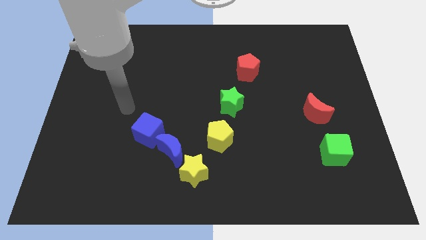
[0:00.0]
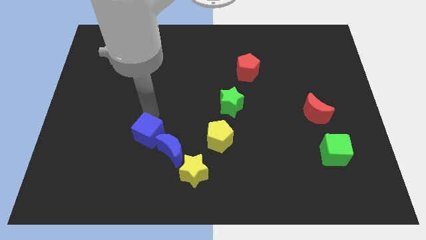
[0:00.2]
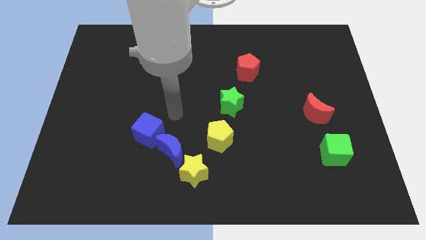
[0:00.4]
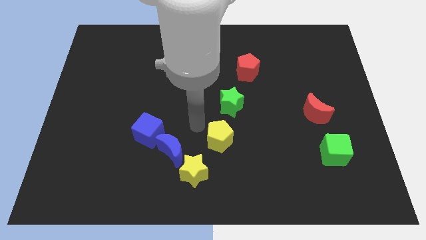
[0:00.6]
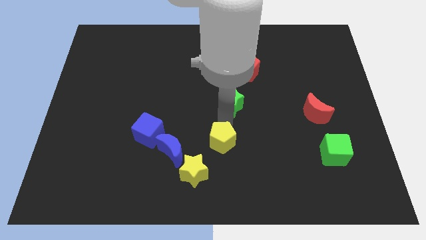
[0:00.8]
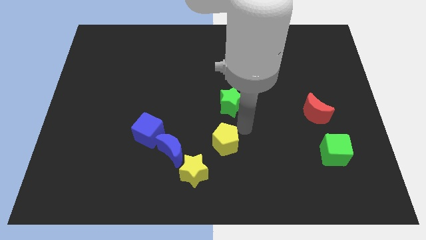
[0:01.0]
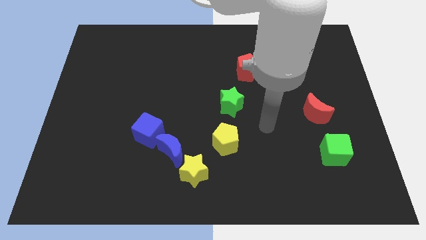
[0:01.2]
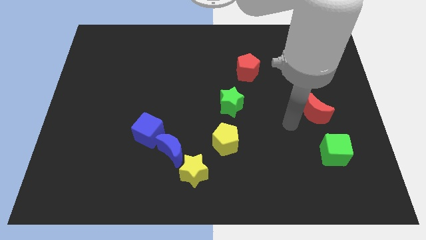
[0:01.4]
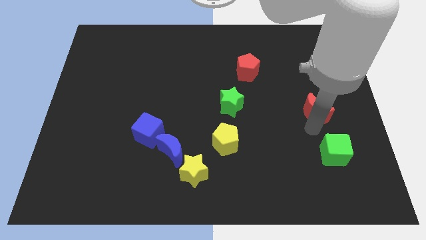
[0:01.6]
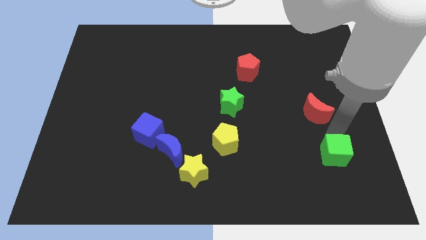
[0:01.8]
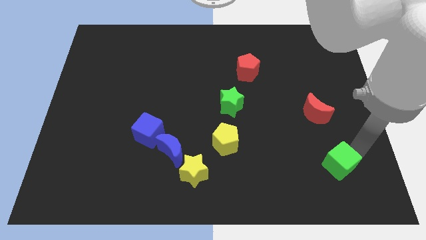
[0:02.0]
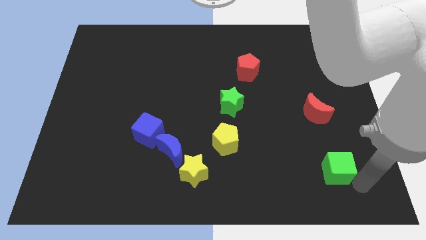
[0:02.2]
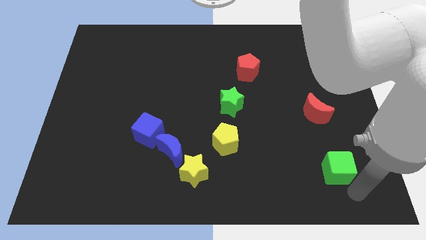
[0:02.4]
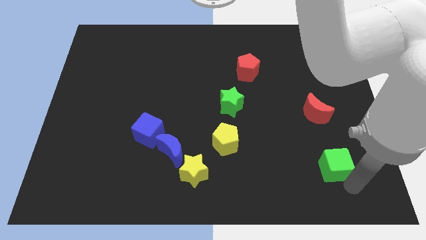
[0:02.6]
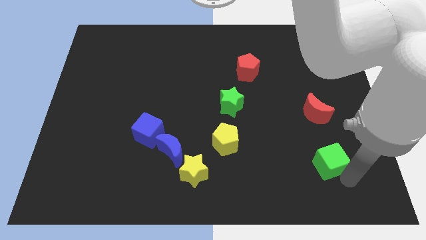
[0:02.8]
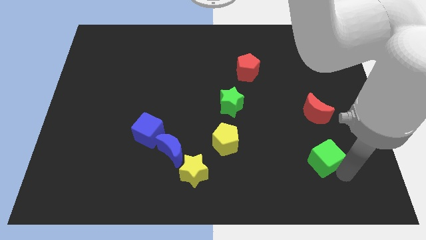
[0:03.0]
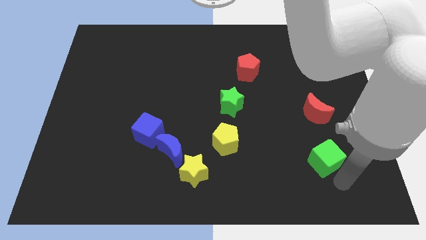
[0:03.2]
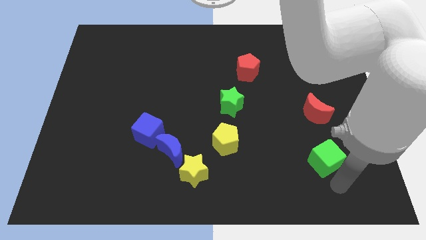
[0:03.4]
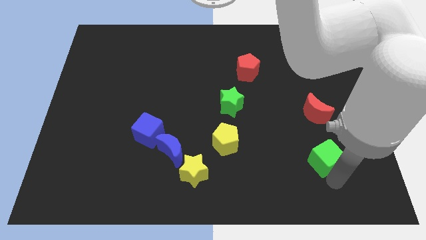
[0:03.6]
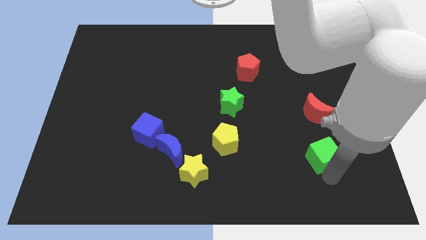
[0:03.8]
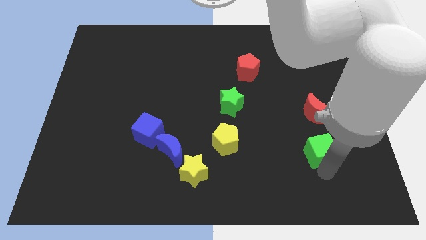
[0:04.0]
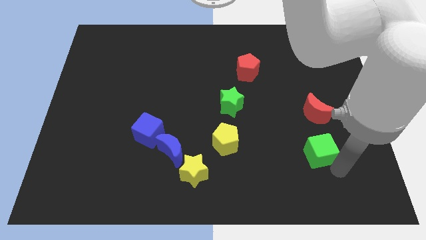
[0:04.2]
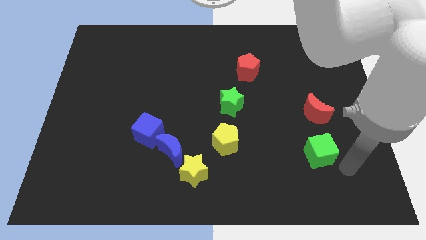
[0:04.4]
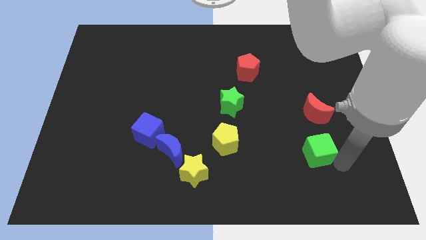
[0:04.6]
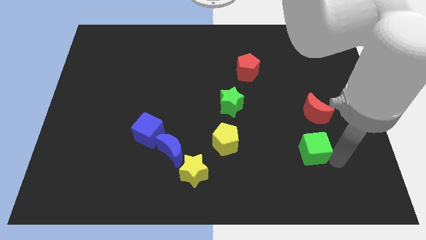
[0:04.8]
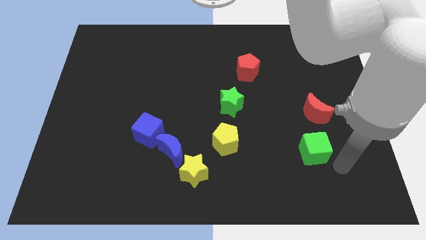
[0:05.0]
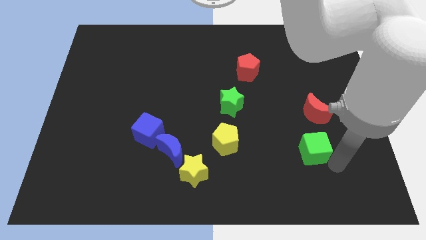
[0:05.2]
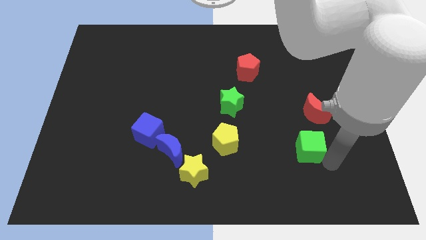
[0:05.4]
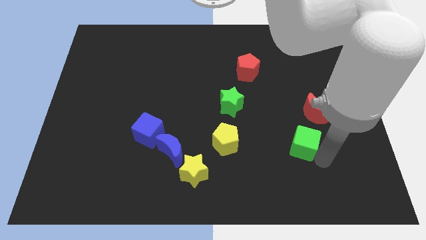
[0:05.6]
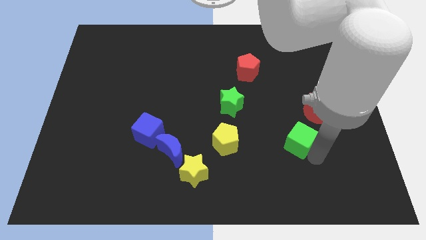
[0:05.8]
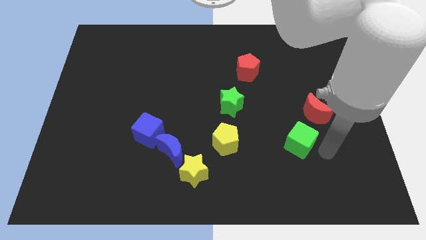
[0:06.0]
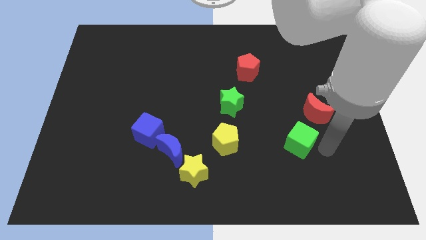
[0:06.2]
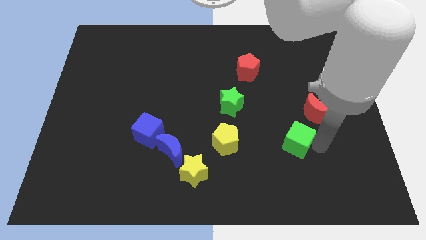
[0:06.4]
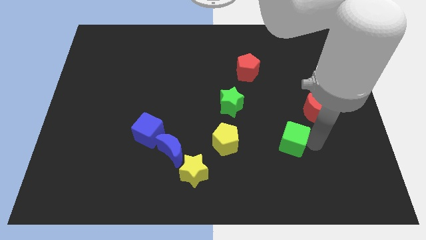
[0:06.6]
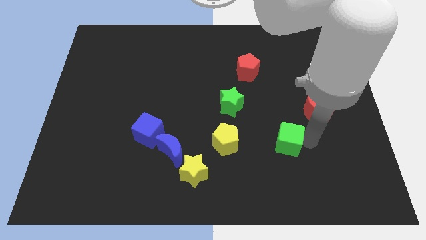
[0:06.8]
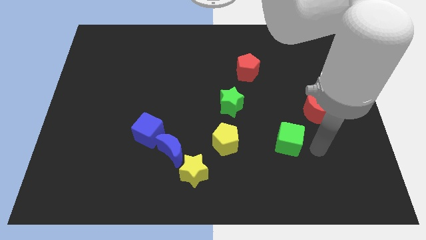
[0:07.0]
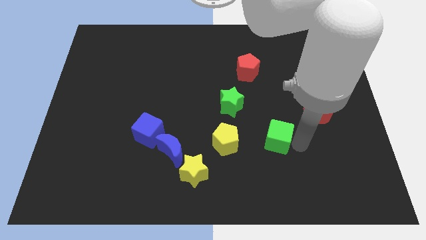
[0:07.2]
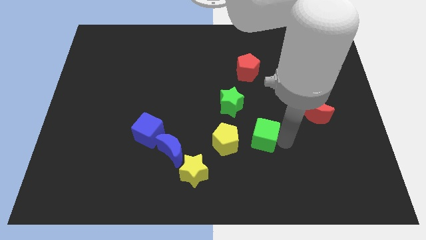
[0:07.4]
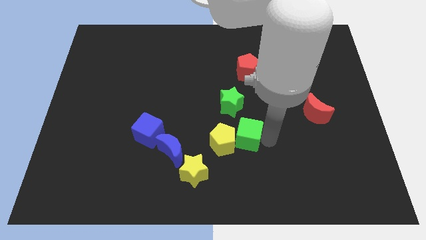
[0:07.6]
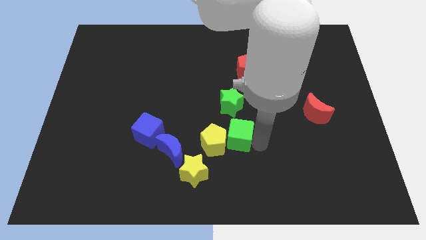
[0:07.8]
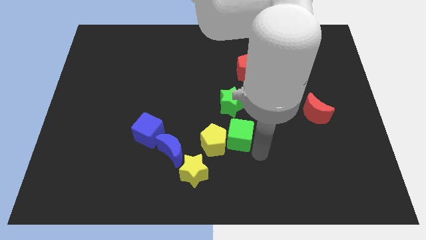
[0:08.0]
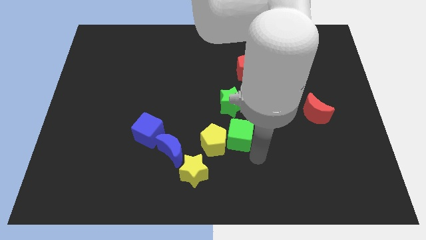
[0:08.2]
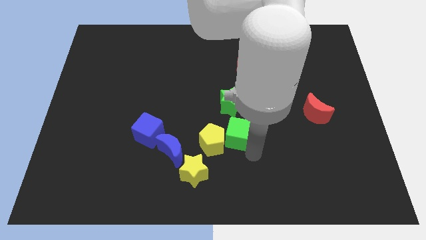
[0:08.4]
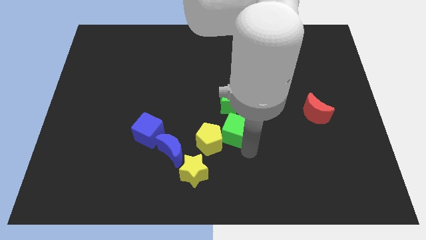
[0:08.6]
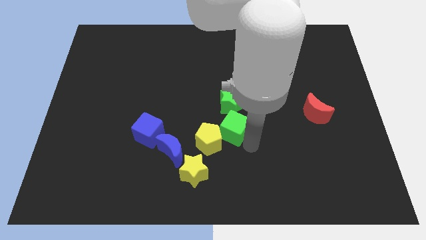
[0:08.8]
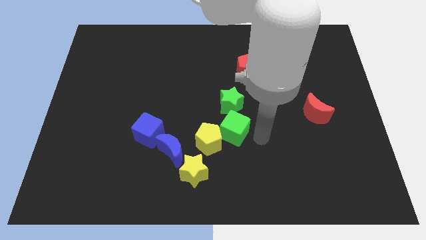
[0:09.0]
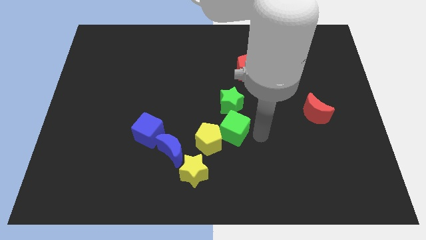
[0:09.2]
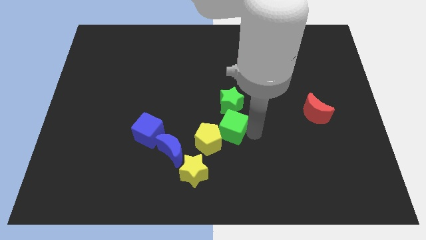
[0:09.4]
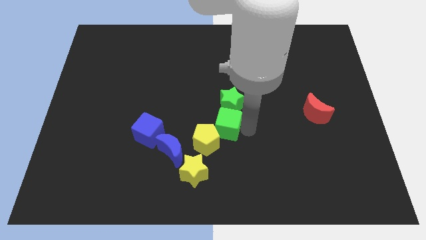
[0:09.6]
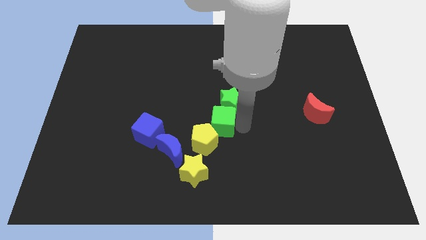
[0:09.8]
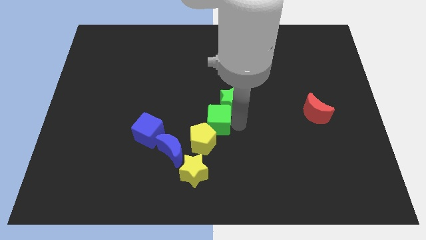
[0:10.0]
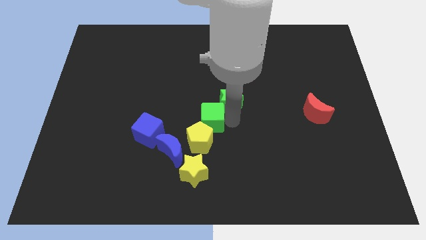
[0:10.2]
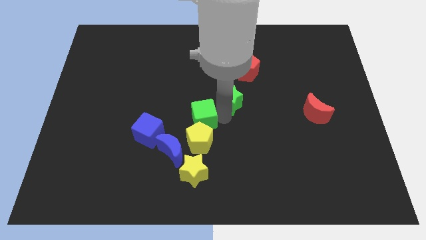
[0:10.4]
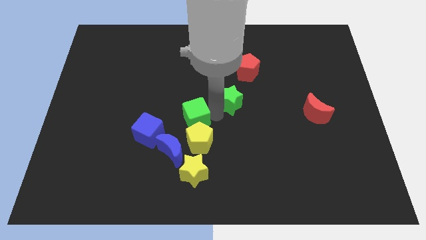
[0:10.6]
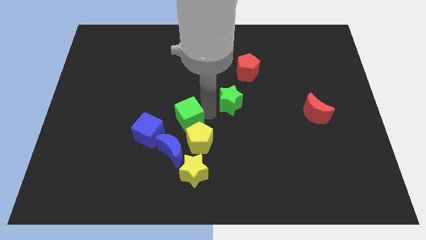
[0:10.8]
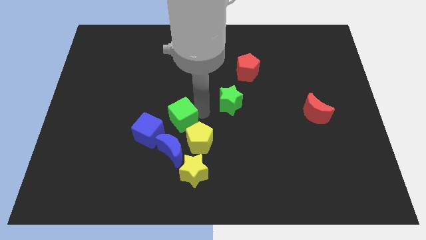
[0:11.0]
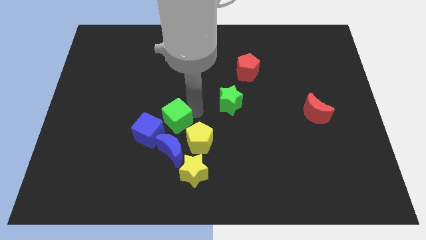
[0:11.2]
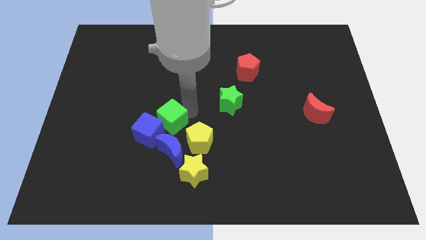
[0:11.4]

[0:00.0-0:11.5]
slide the green cube close to the blue cube

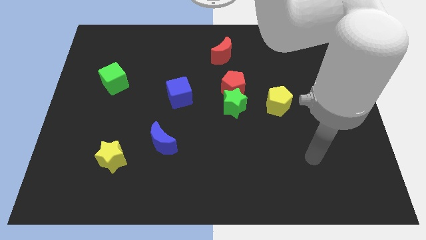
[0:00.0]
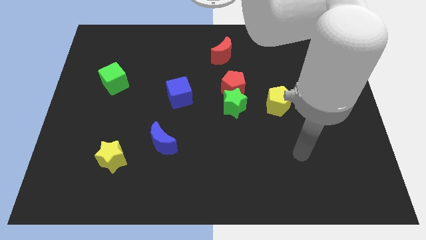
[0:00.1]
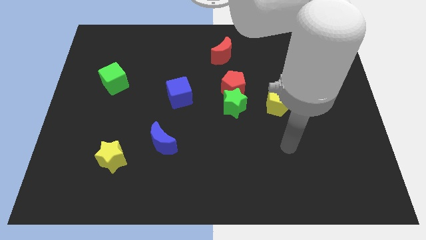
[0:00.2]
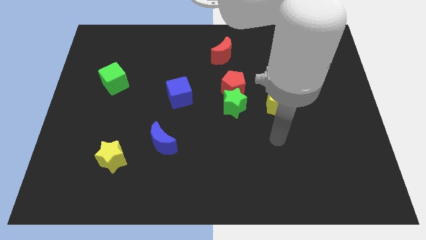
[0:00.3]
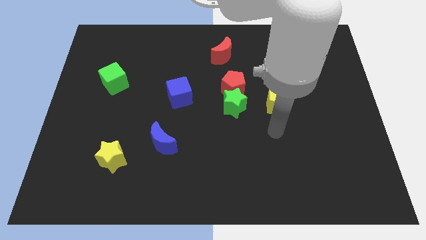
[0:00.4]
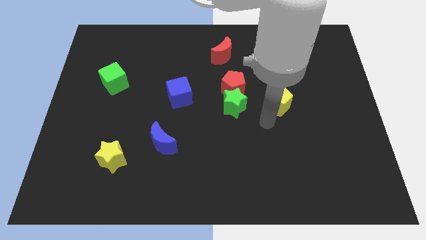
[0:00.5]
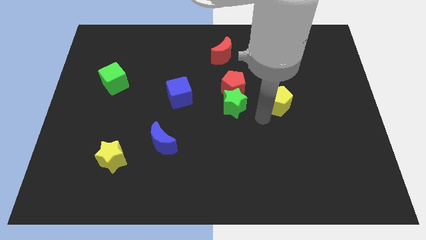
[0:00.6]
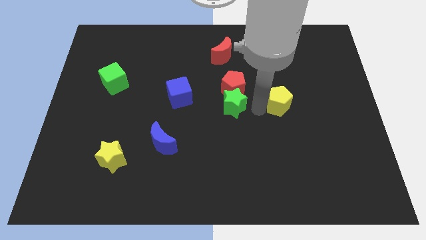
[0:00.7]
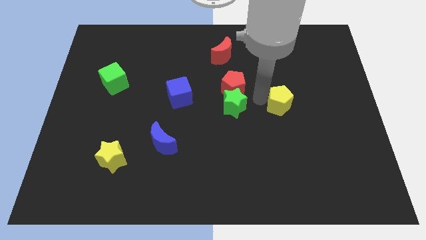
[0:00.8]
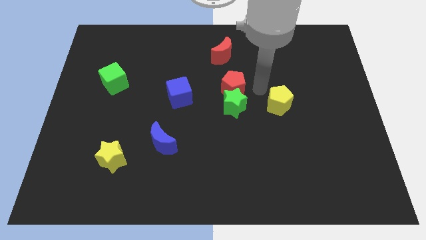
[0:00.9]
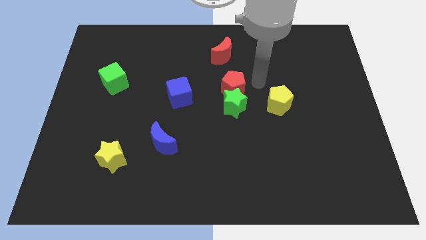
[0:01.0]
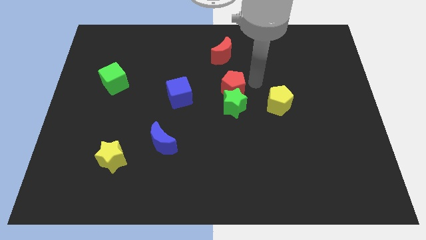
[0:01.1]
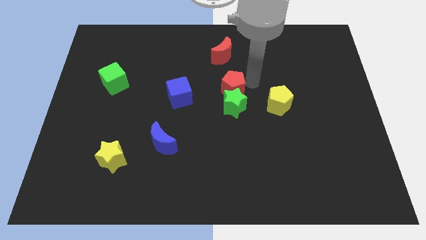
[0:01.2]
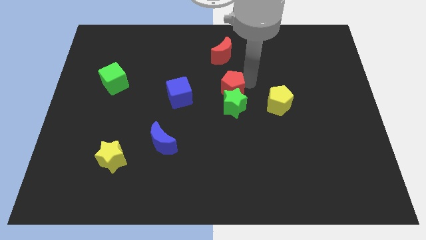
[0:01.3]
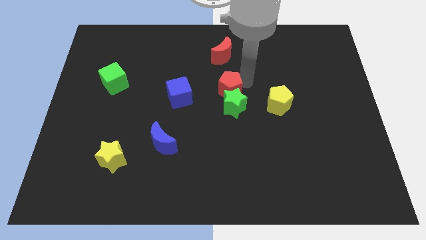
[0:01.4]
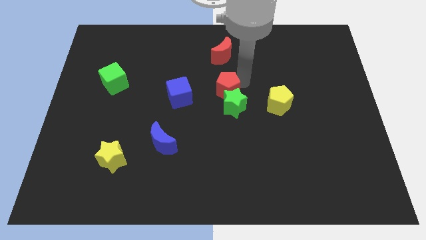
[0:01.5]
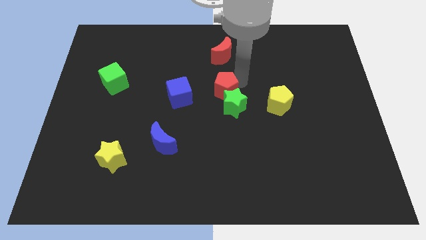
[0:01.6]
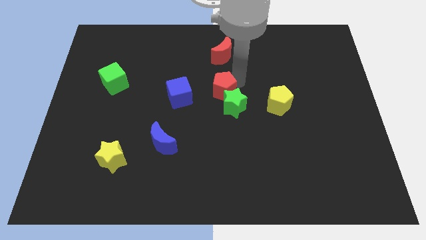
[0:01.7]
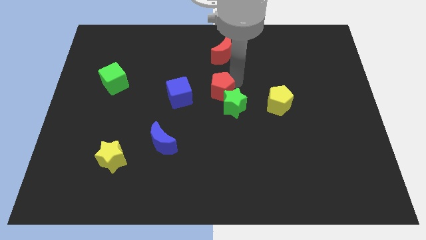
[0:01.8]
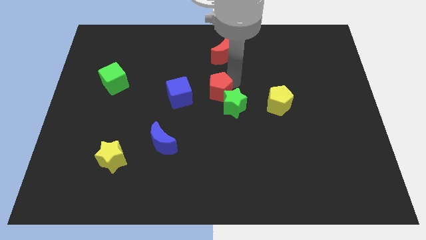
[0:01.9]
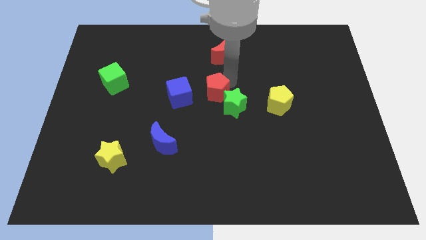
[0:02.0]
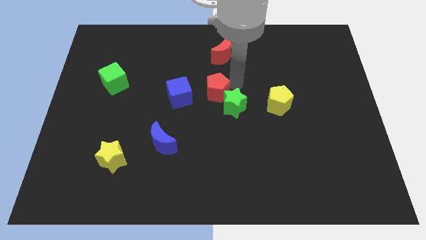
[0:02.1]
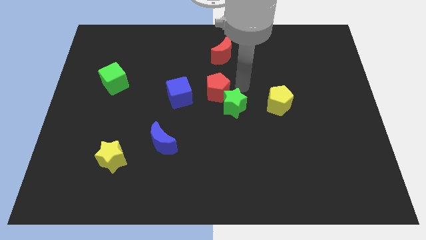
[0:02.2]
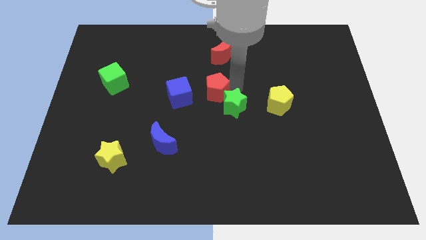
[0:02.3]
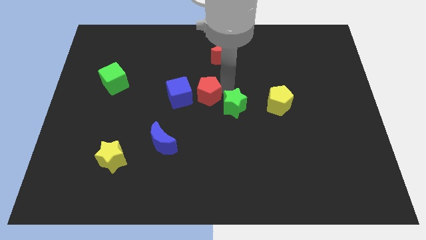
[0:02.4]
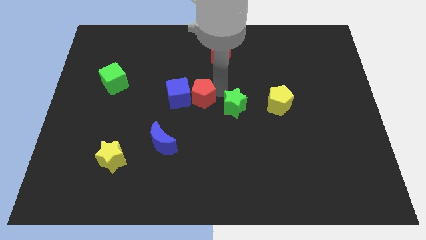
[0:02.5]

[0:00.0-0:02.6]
slide the red pentagon towards the blue cube
